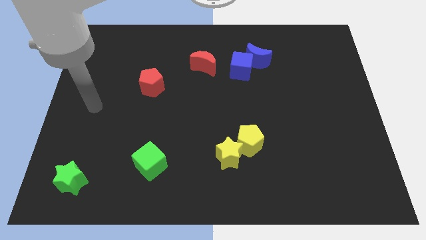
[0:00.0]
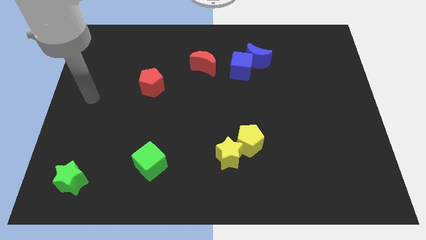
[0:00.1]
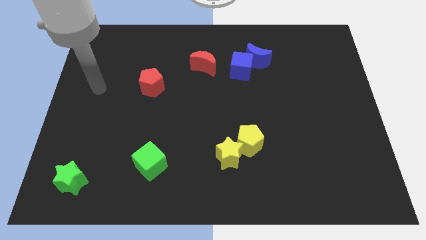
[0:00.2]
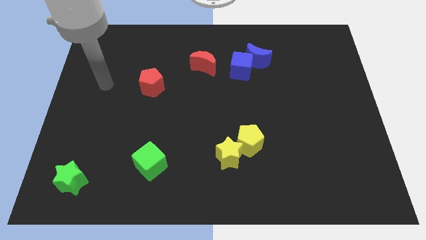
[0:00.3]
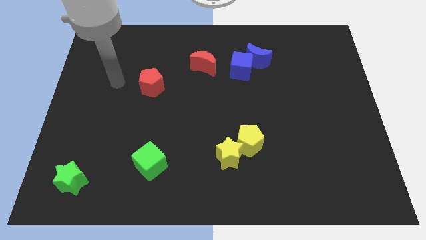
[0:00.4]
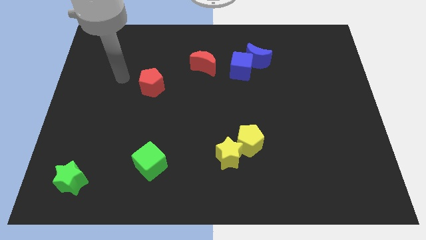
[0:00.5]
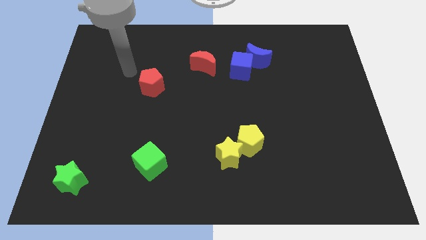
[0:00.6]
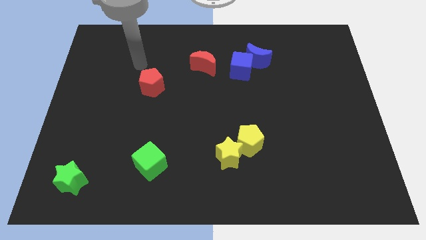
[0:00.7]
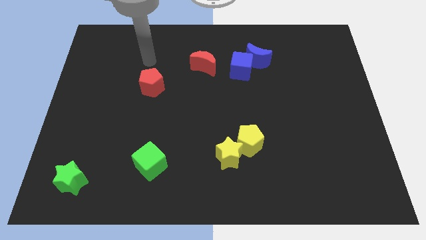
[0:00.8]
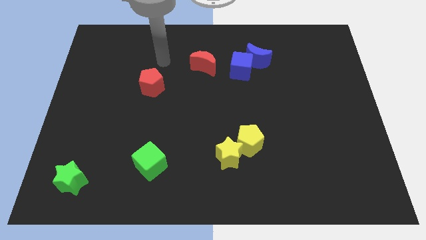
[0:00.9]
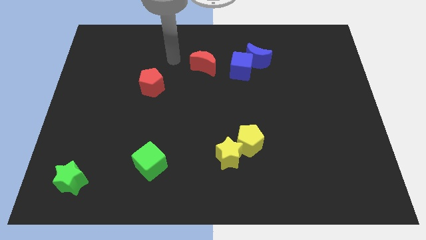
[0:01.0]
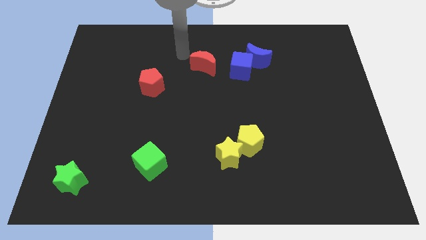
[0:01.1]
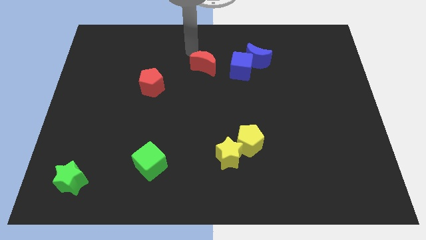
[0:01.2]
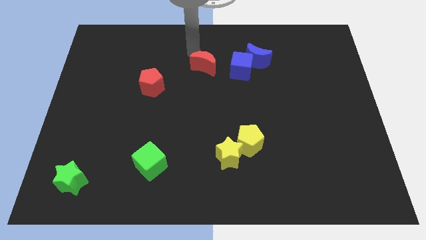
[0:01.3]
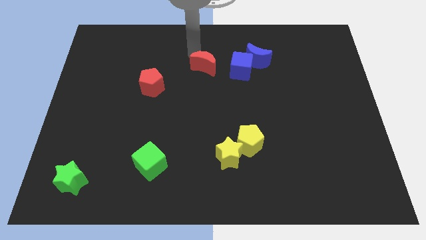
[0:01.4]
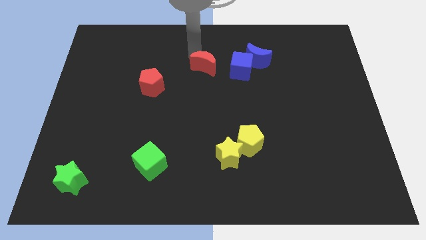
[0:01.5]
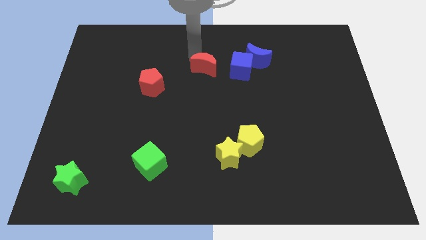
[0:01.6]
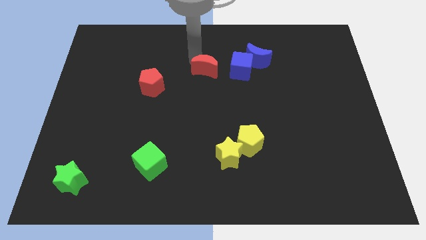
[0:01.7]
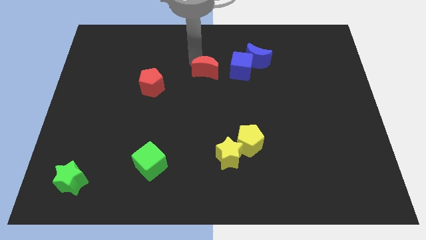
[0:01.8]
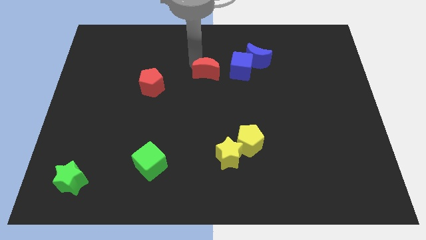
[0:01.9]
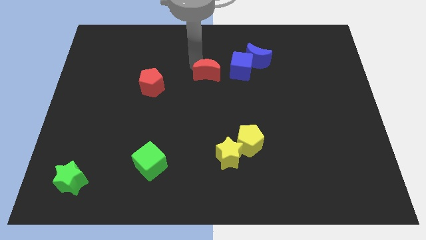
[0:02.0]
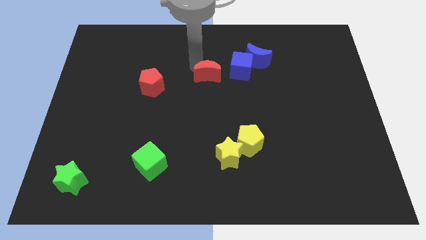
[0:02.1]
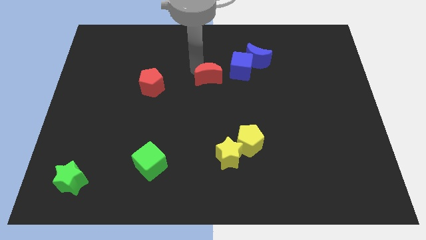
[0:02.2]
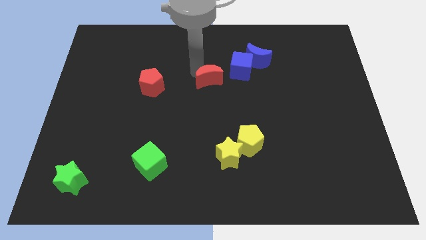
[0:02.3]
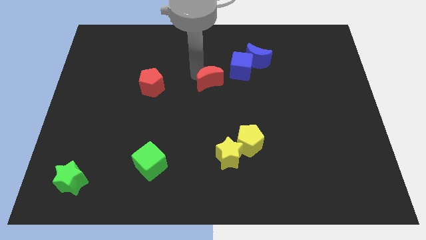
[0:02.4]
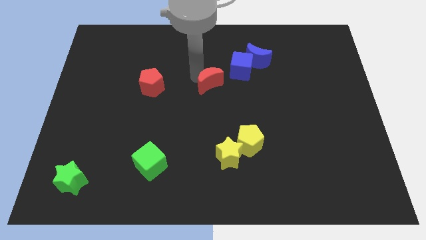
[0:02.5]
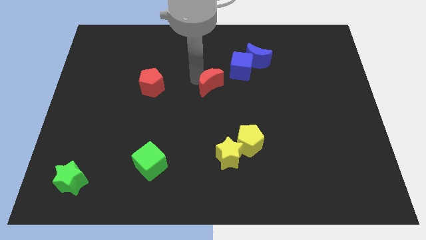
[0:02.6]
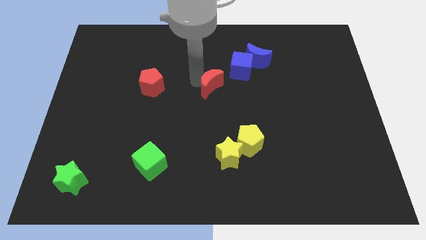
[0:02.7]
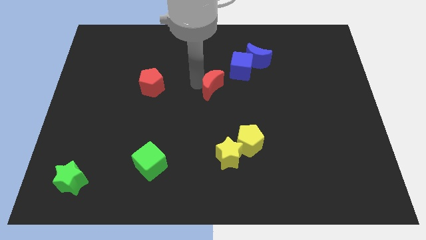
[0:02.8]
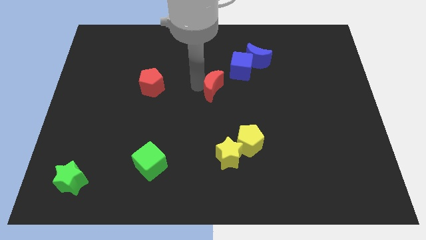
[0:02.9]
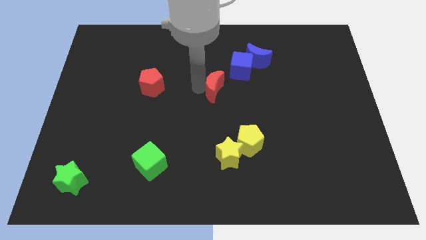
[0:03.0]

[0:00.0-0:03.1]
move the red moon a bit diagonally downwards and to the right

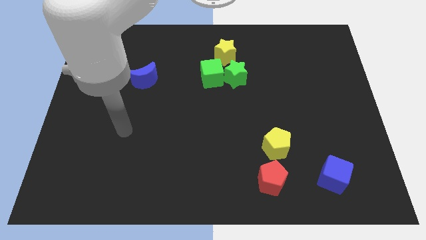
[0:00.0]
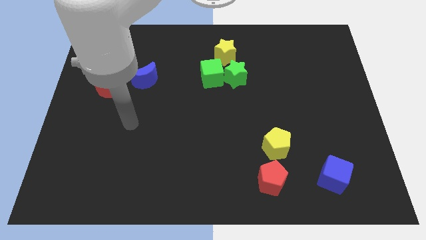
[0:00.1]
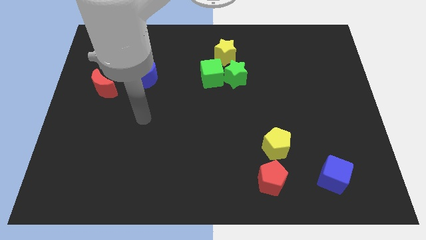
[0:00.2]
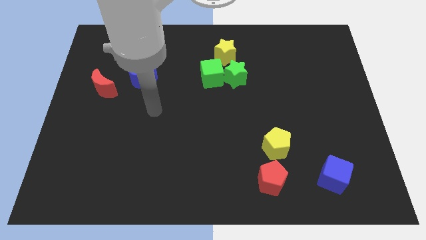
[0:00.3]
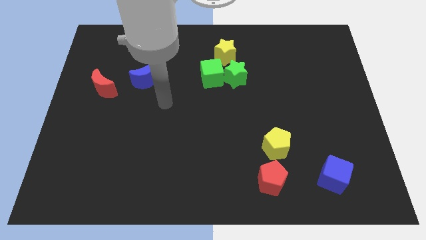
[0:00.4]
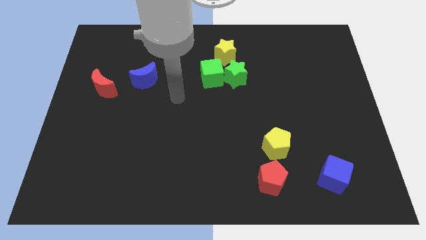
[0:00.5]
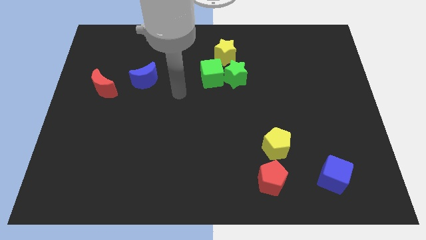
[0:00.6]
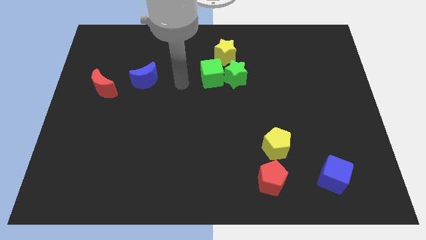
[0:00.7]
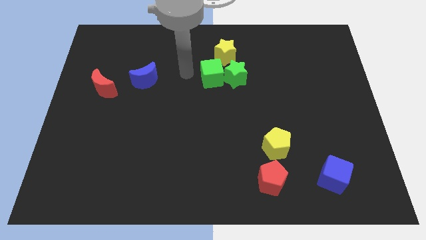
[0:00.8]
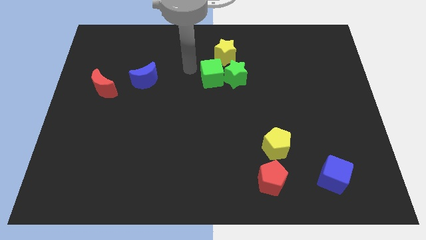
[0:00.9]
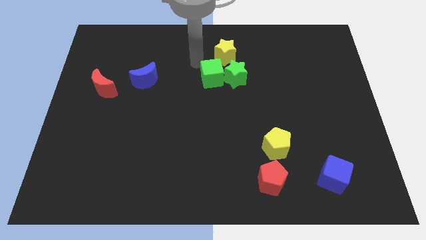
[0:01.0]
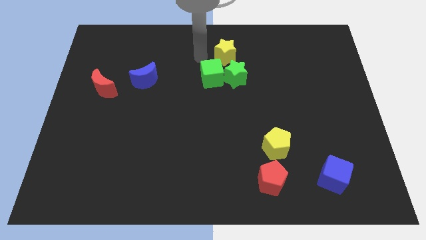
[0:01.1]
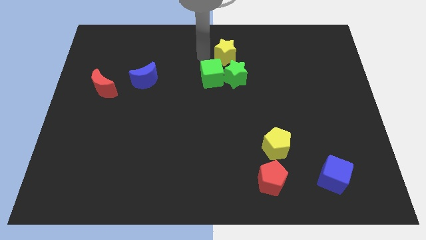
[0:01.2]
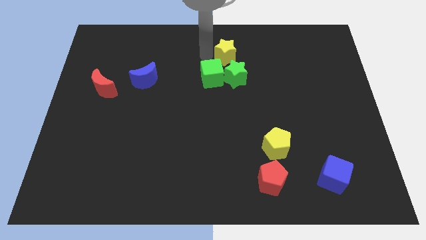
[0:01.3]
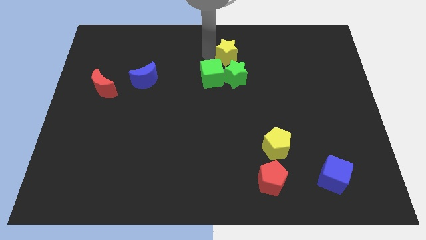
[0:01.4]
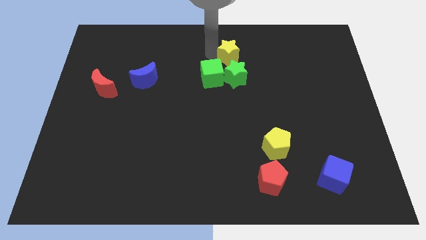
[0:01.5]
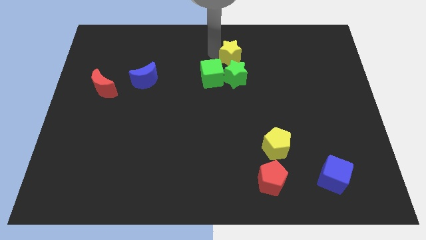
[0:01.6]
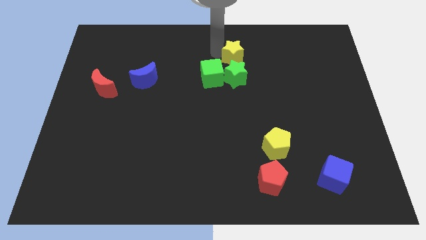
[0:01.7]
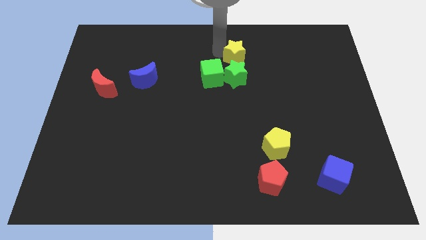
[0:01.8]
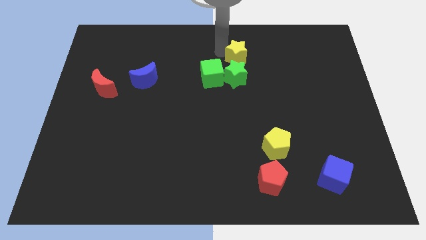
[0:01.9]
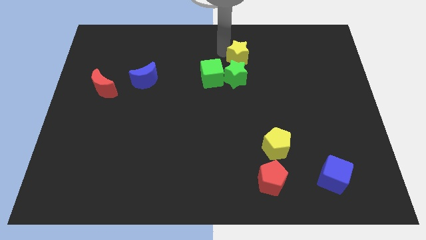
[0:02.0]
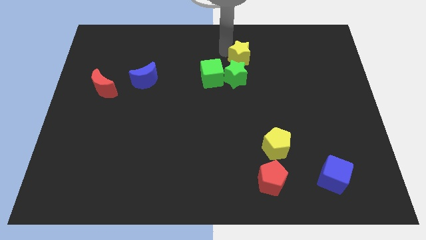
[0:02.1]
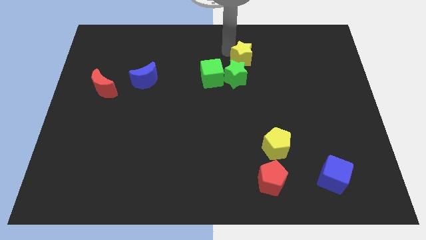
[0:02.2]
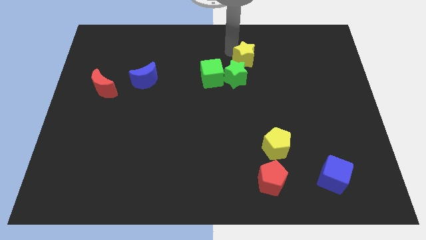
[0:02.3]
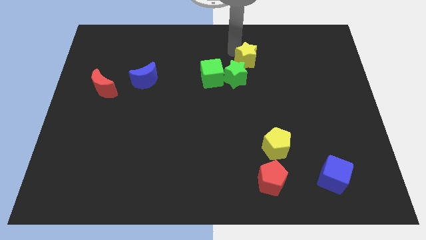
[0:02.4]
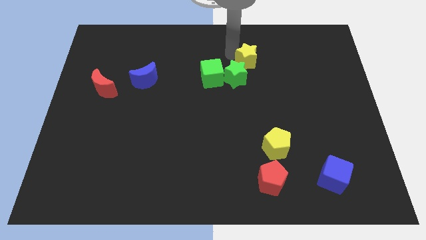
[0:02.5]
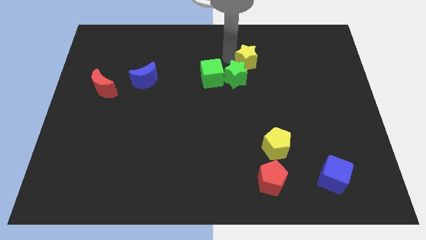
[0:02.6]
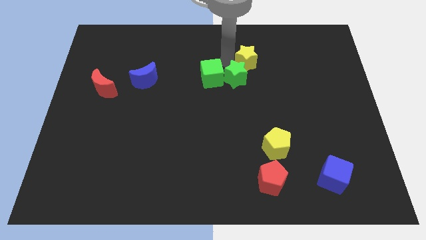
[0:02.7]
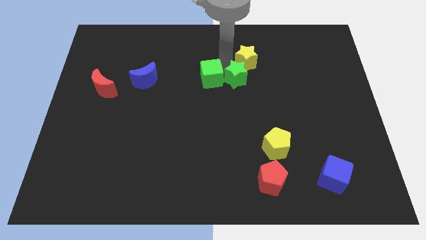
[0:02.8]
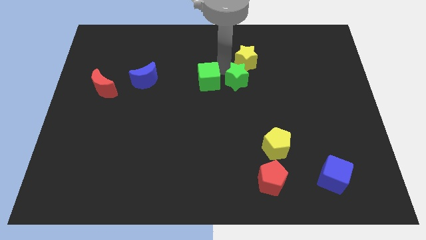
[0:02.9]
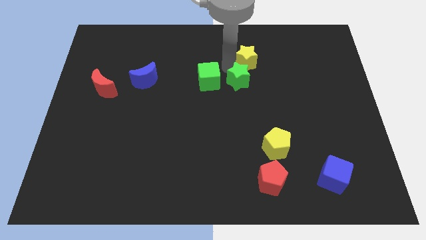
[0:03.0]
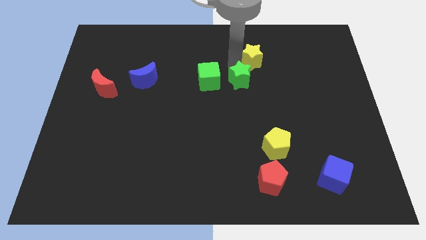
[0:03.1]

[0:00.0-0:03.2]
slightly slide the yellow star right

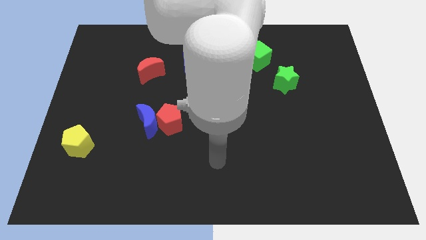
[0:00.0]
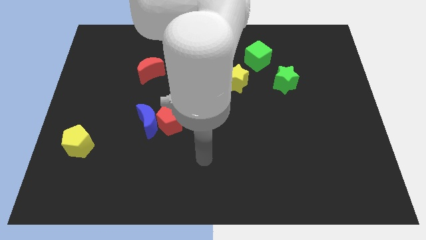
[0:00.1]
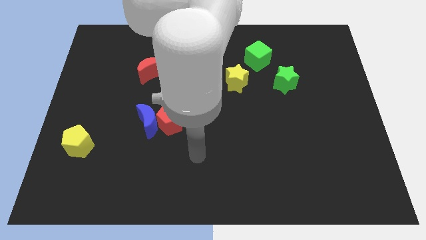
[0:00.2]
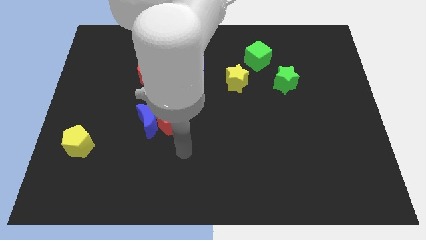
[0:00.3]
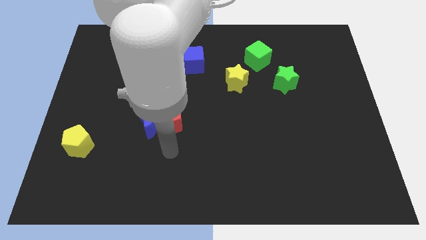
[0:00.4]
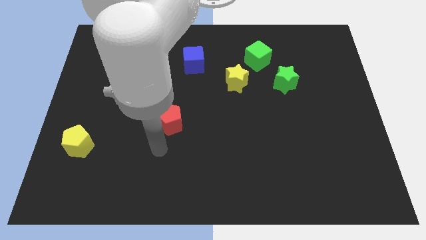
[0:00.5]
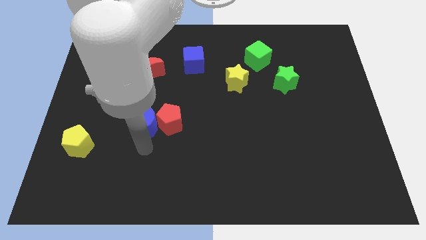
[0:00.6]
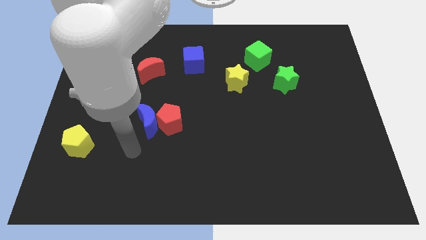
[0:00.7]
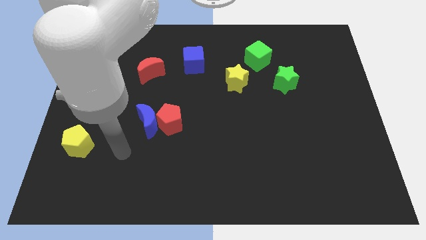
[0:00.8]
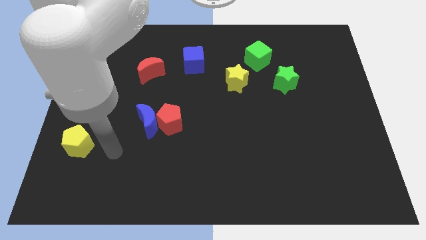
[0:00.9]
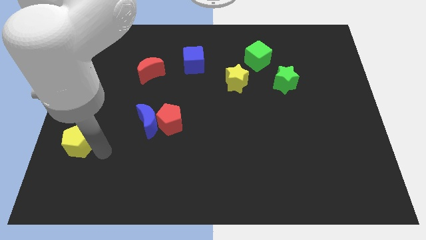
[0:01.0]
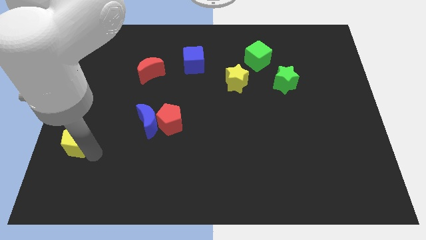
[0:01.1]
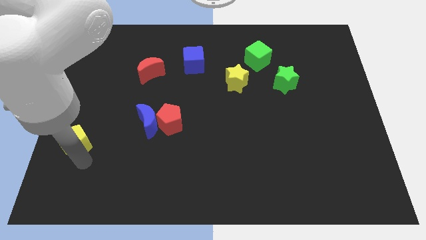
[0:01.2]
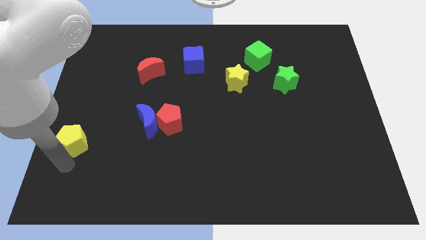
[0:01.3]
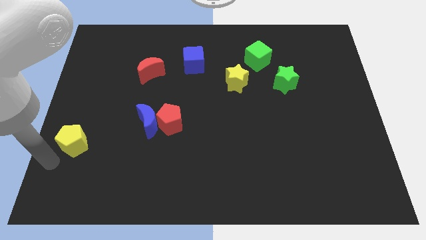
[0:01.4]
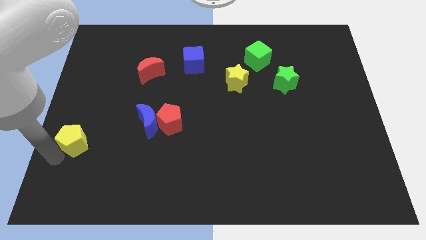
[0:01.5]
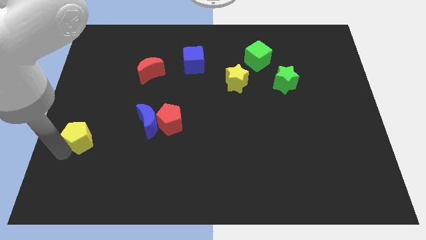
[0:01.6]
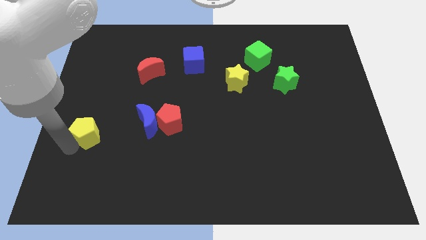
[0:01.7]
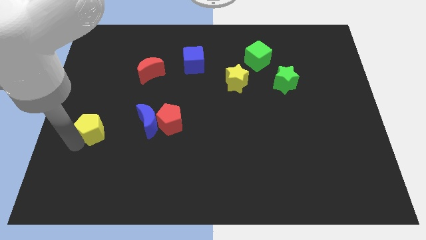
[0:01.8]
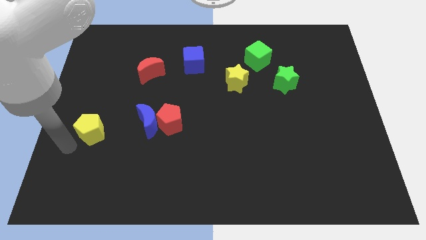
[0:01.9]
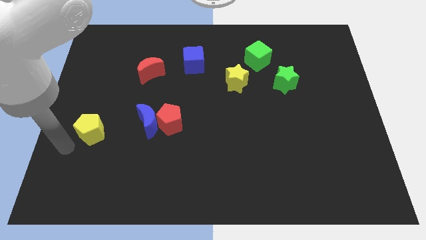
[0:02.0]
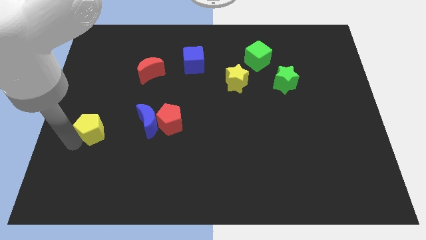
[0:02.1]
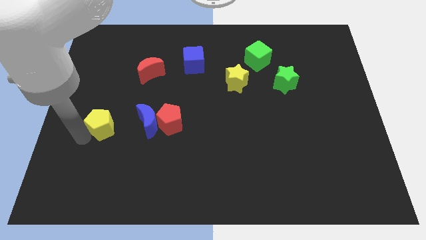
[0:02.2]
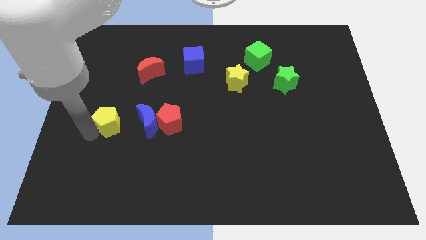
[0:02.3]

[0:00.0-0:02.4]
slide the yellow pentagon upwards and then right a bit
